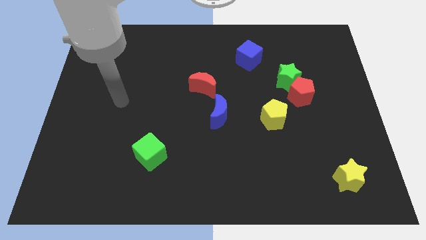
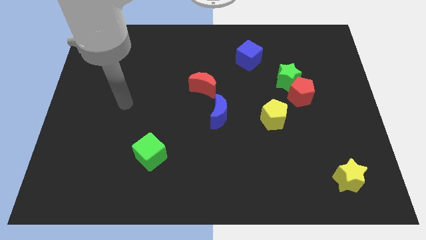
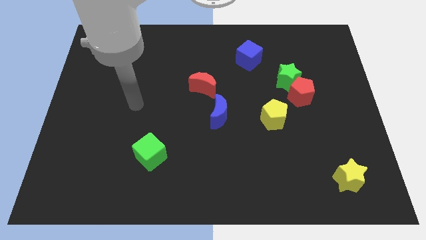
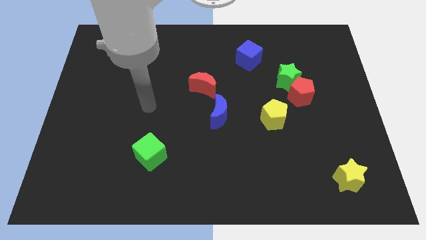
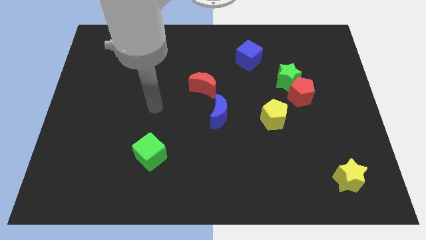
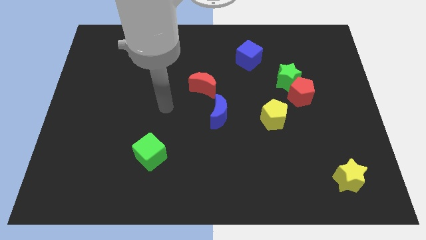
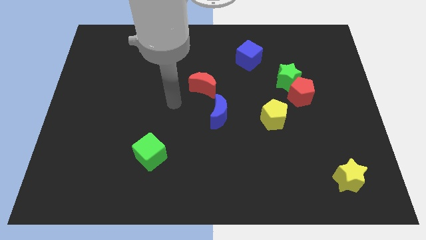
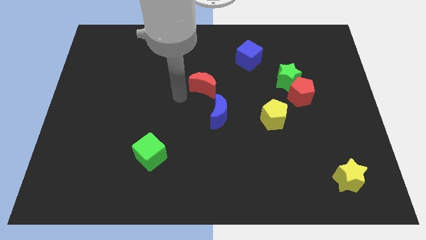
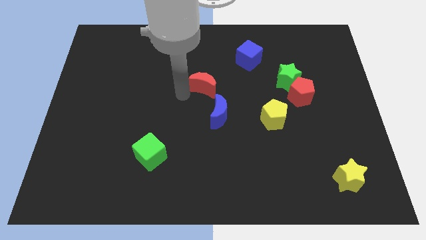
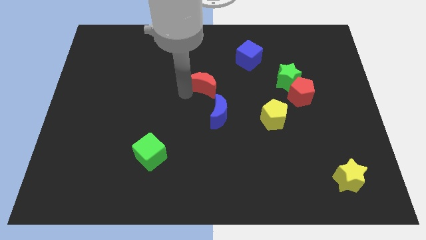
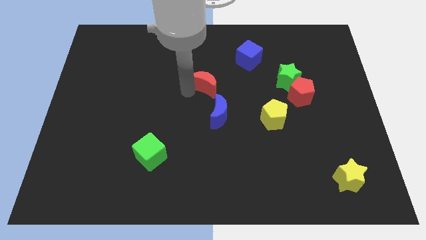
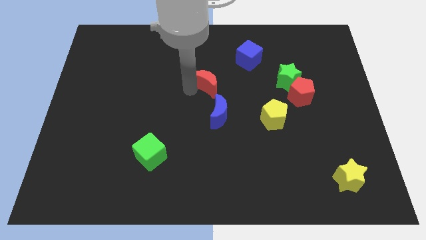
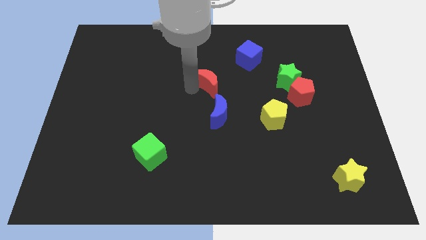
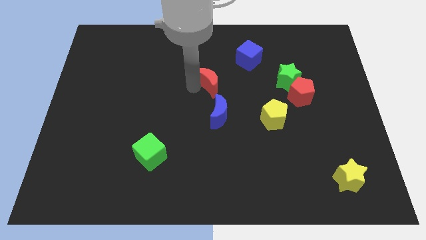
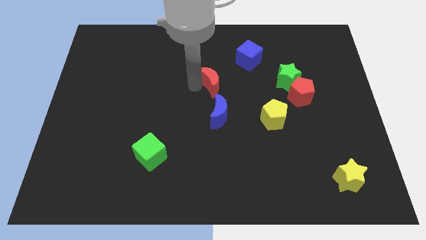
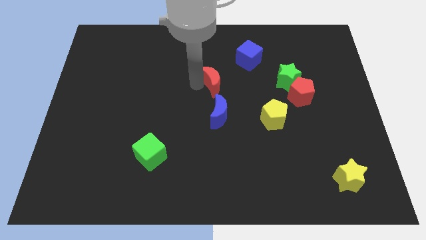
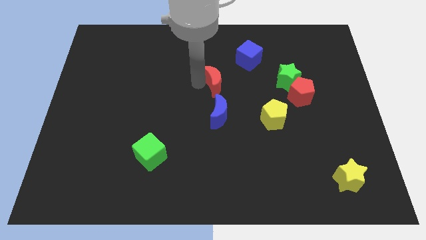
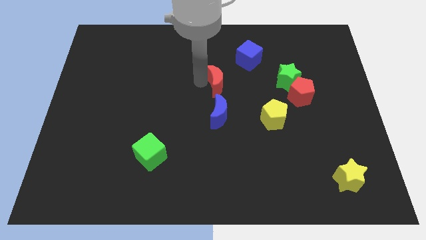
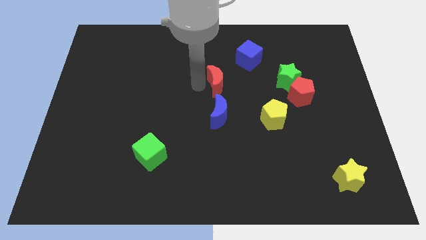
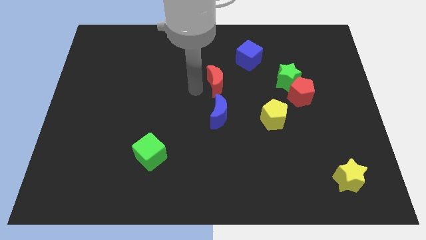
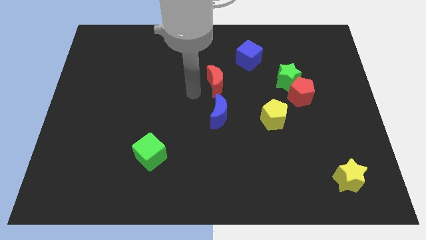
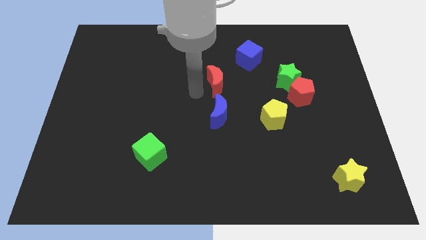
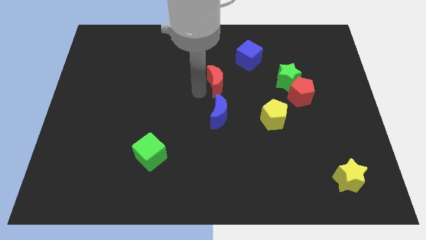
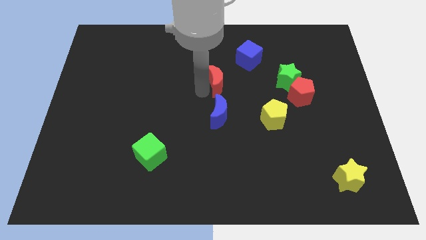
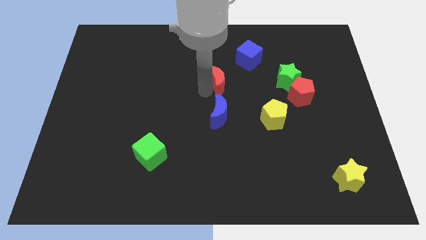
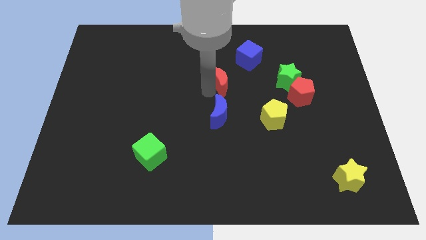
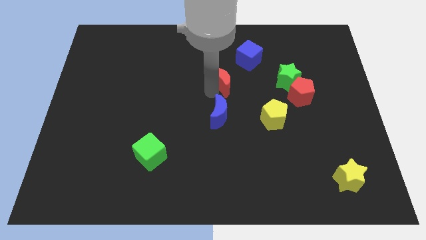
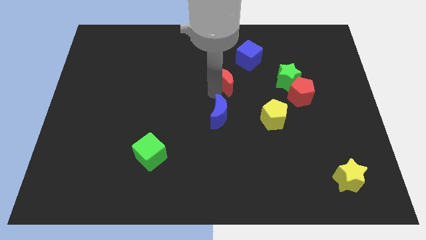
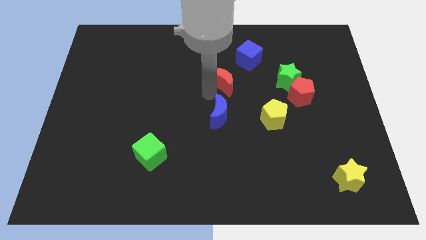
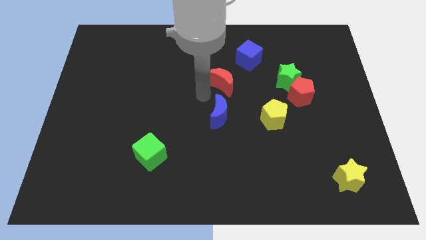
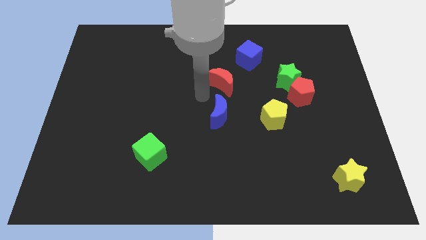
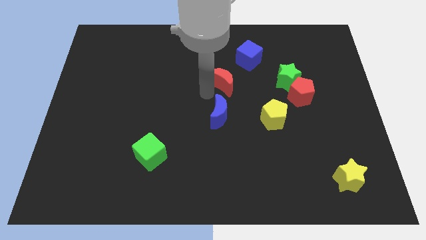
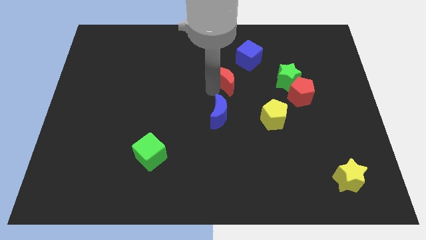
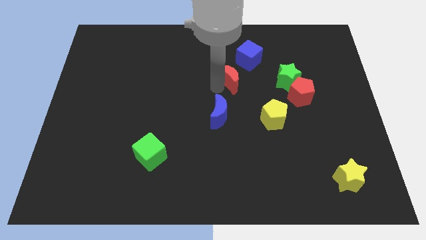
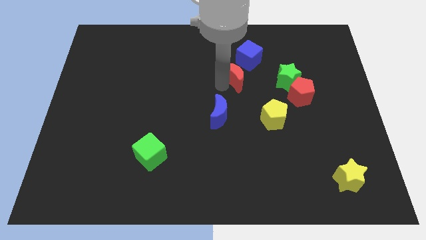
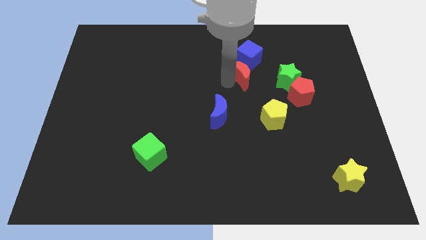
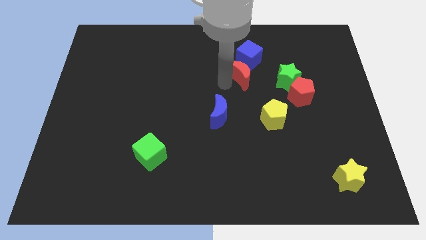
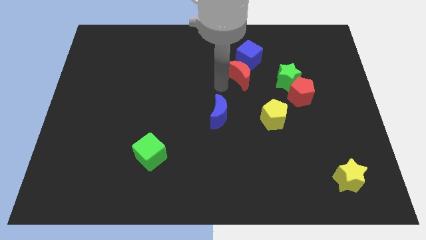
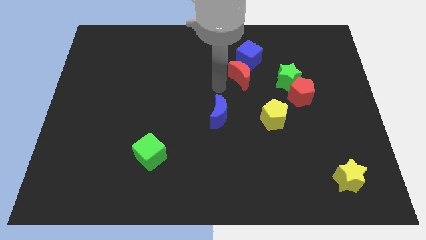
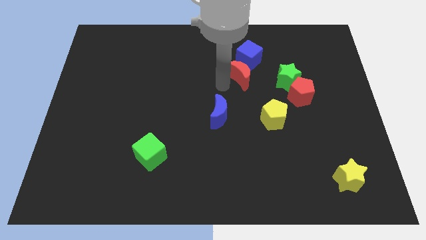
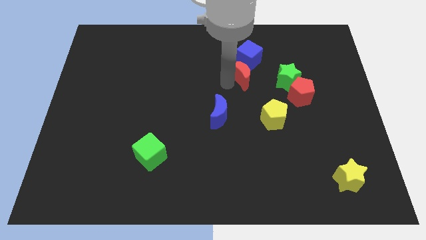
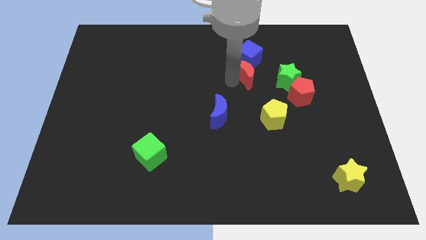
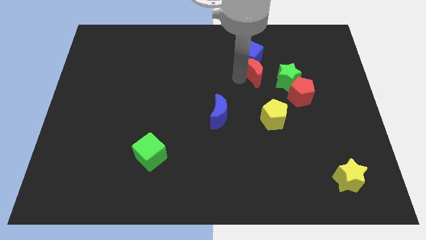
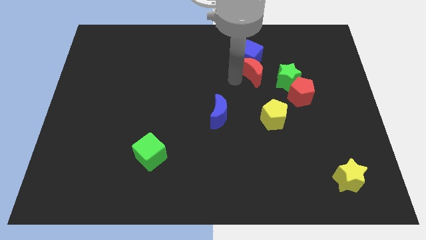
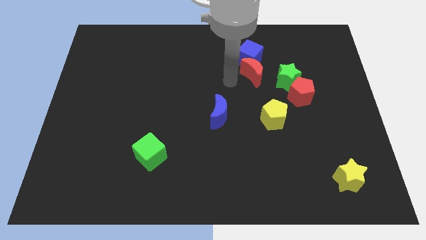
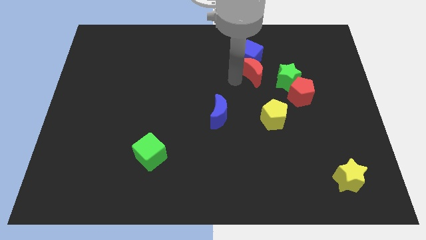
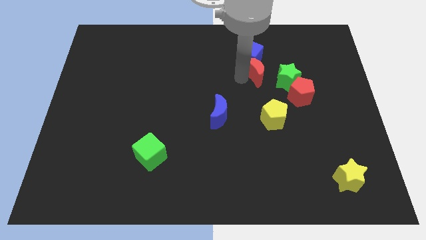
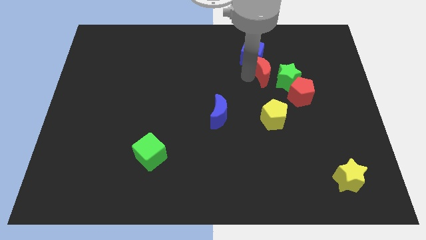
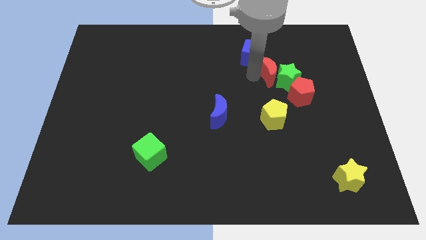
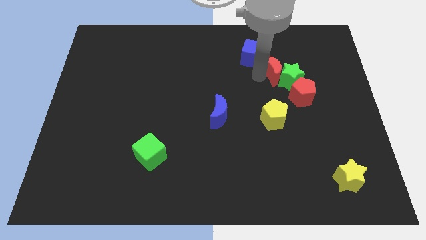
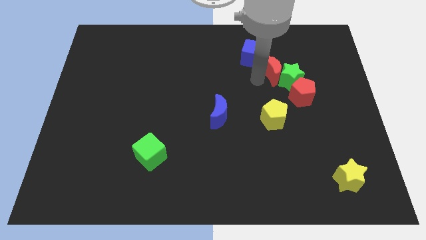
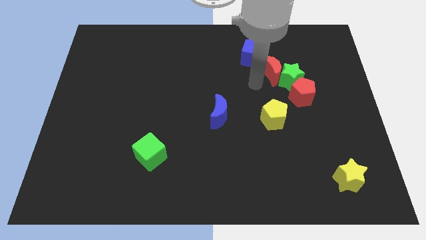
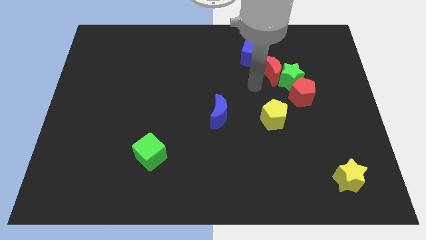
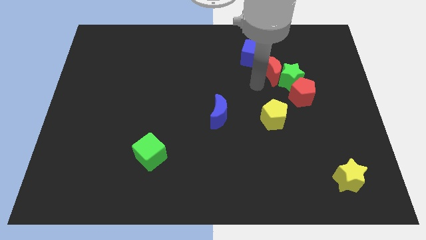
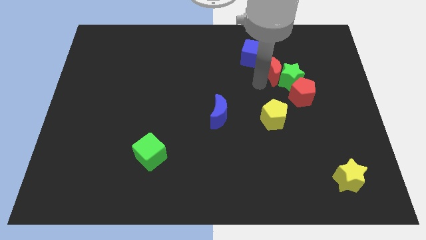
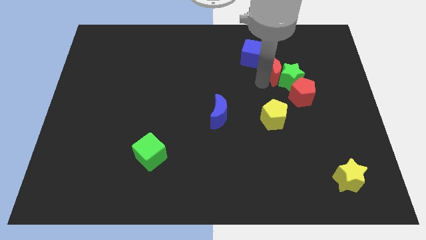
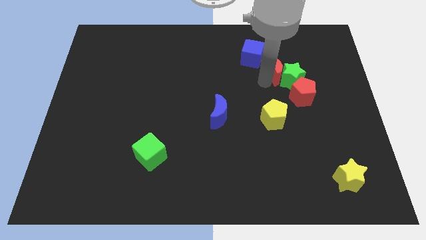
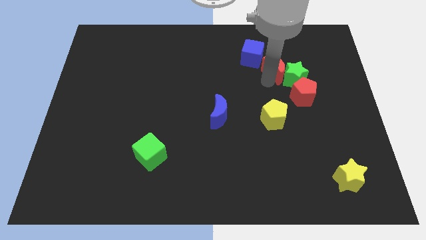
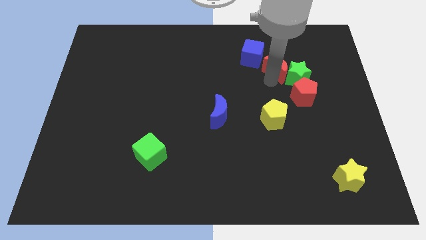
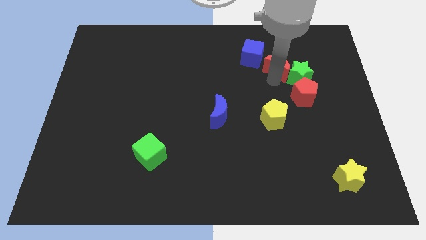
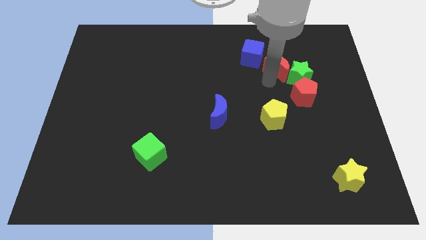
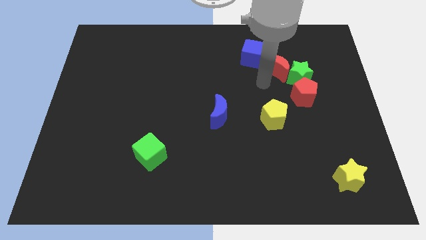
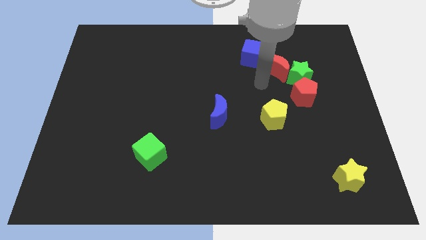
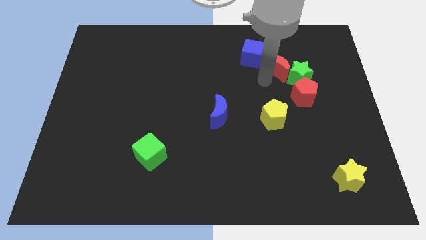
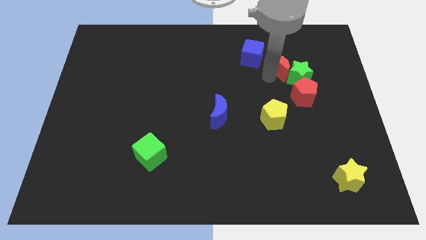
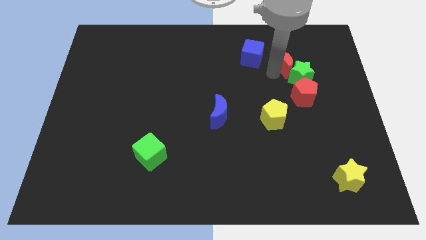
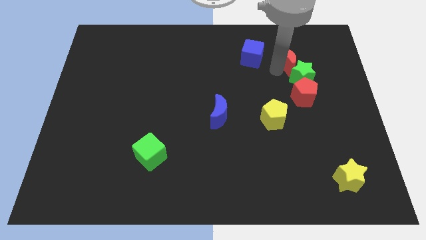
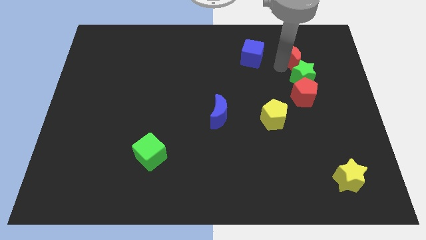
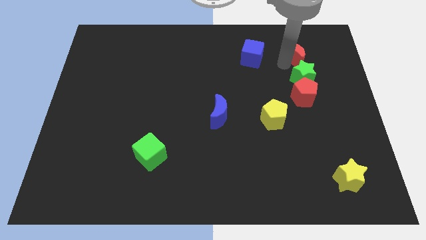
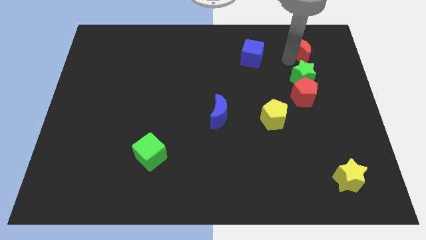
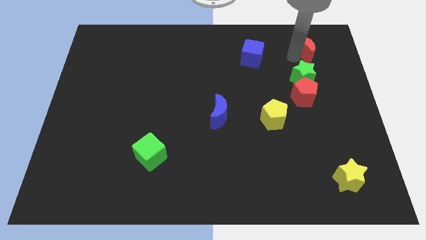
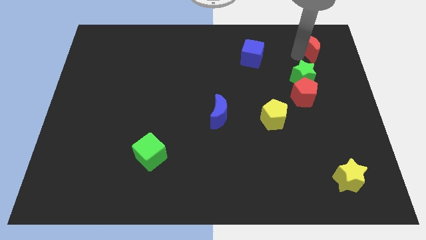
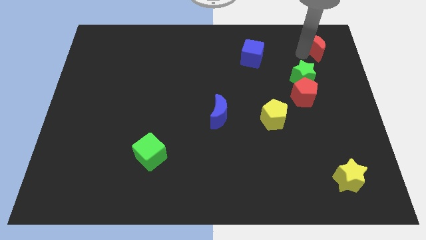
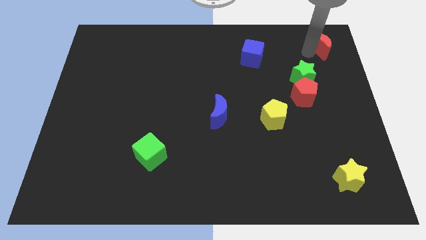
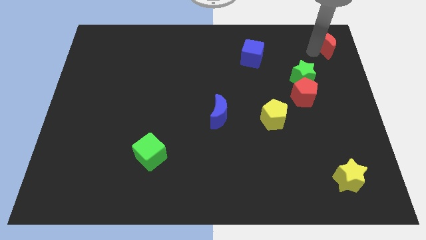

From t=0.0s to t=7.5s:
put the red moon to the top right of the board
